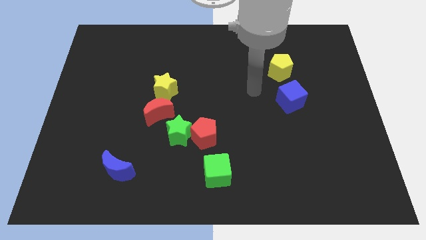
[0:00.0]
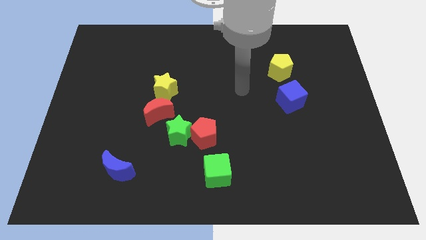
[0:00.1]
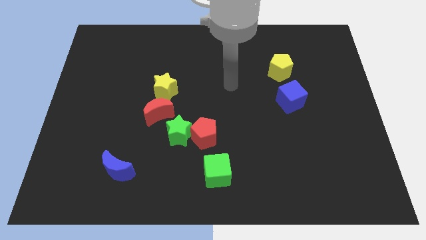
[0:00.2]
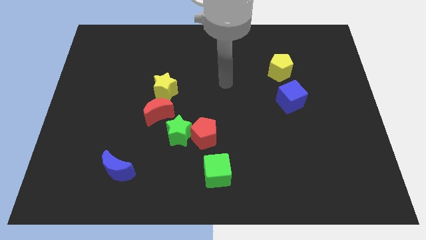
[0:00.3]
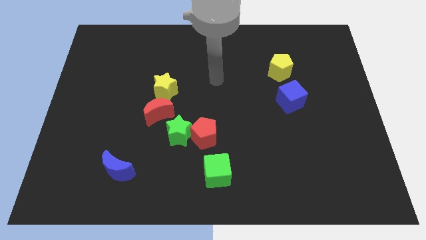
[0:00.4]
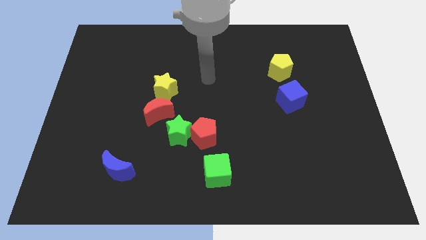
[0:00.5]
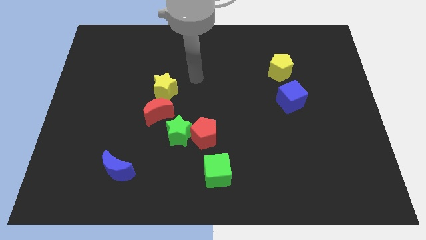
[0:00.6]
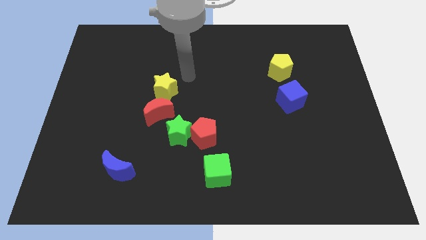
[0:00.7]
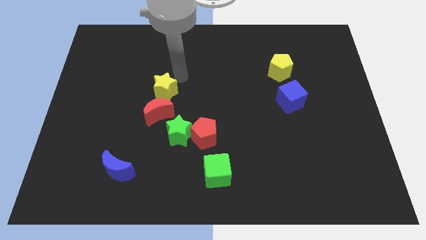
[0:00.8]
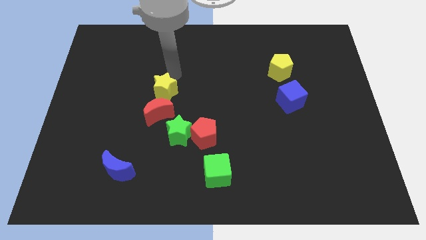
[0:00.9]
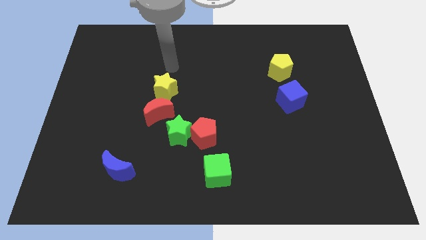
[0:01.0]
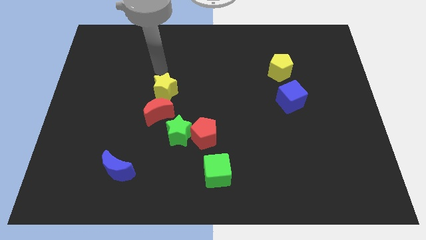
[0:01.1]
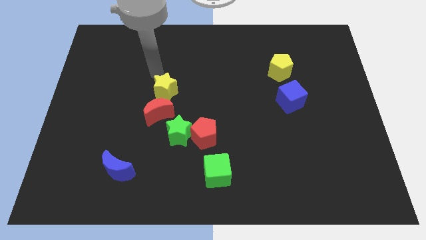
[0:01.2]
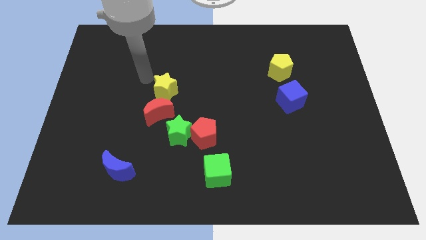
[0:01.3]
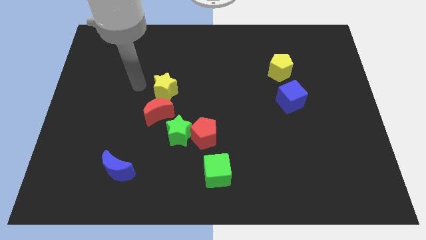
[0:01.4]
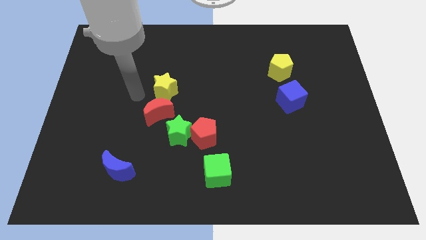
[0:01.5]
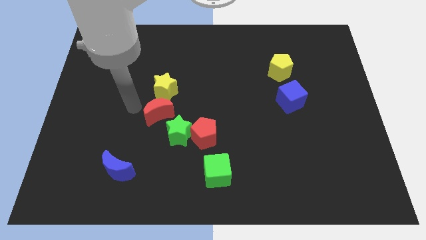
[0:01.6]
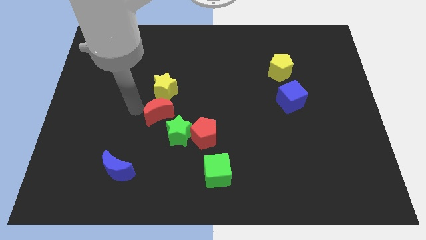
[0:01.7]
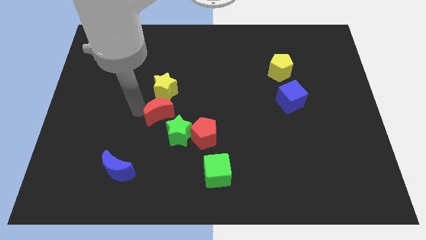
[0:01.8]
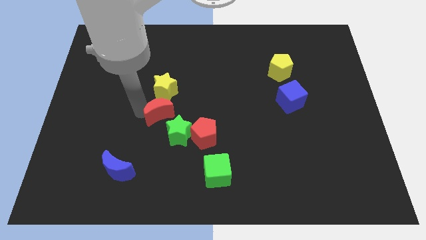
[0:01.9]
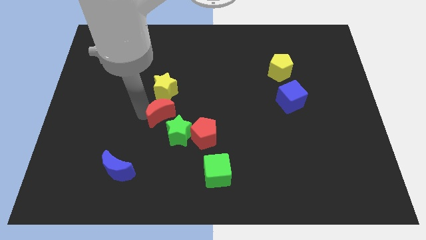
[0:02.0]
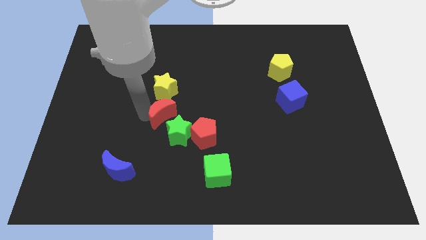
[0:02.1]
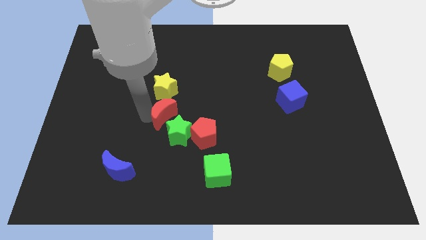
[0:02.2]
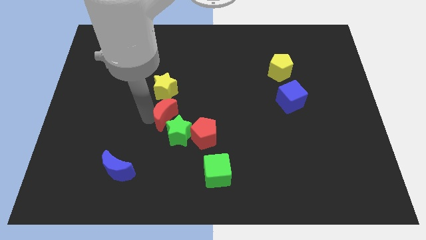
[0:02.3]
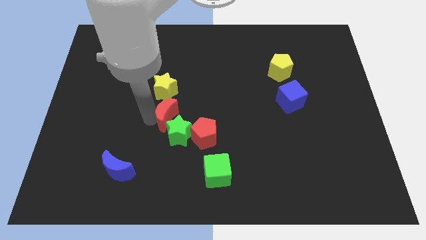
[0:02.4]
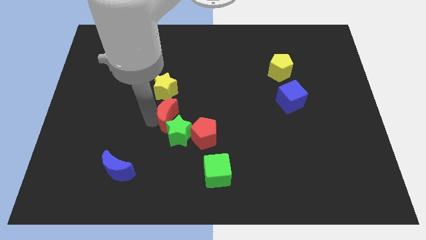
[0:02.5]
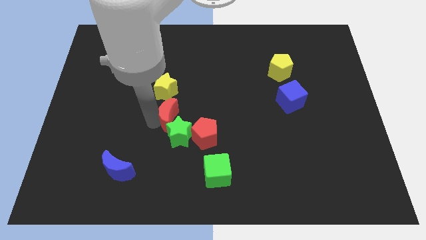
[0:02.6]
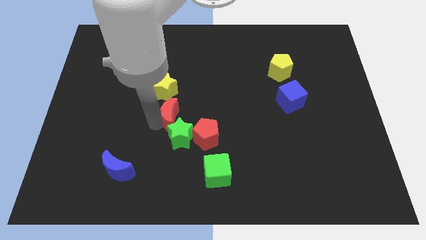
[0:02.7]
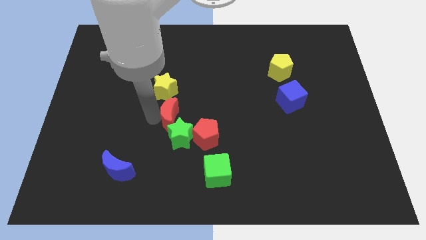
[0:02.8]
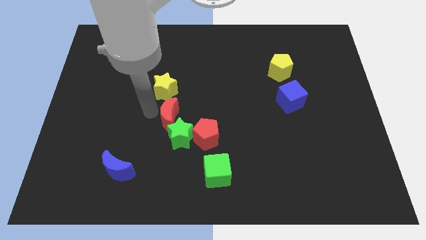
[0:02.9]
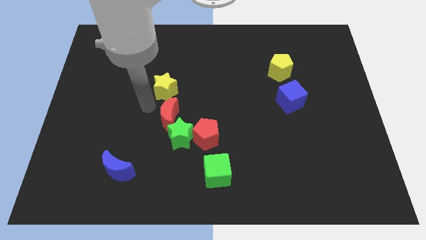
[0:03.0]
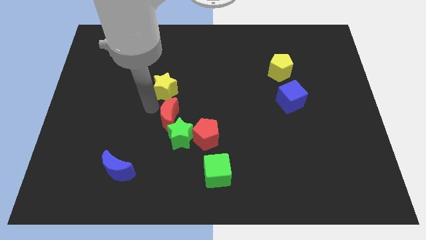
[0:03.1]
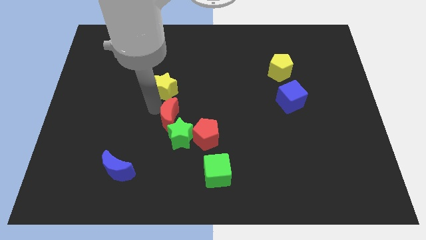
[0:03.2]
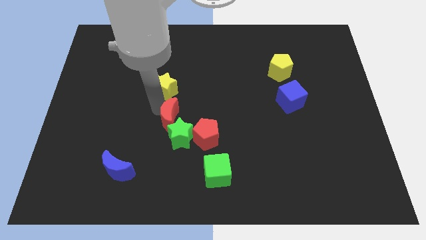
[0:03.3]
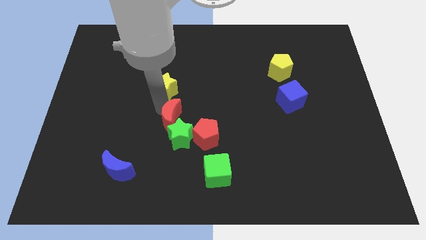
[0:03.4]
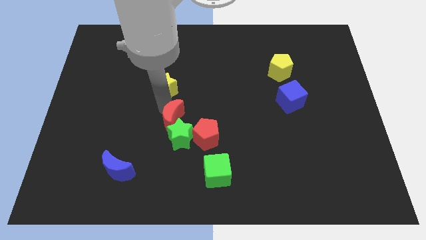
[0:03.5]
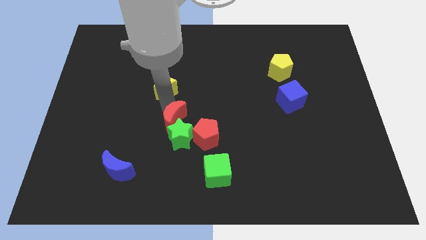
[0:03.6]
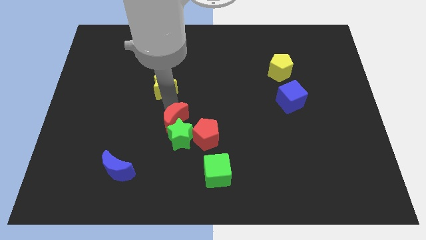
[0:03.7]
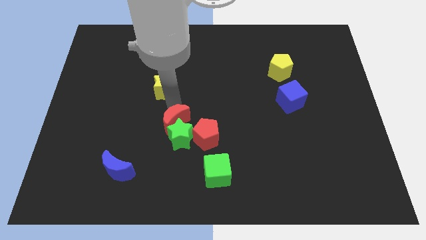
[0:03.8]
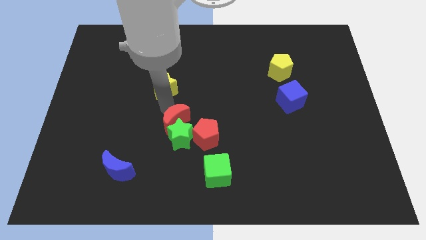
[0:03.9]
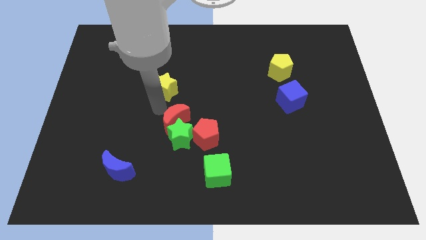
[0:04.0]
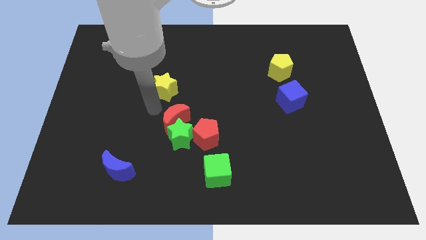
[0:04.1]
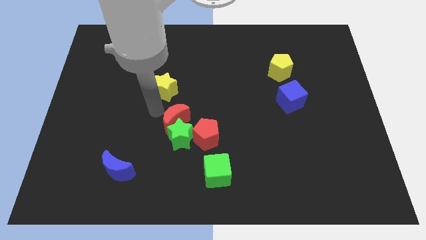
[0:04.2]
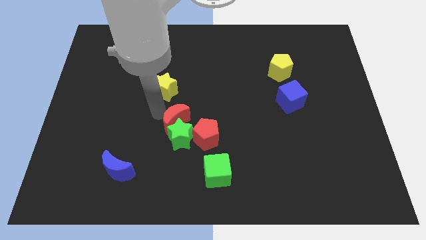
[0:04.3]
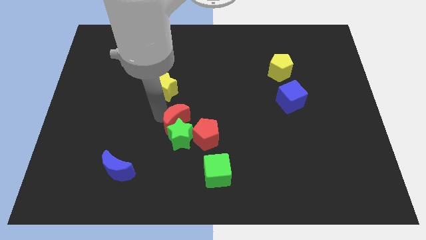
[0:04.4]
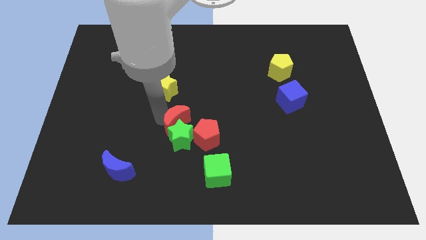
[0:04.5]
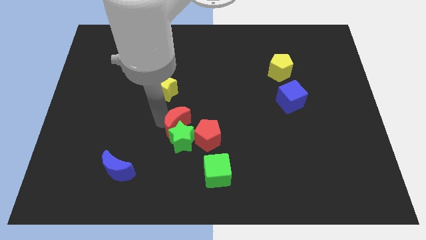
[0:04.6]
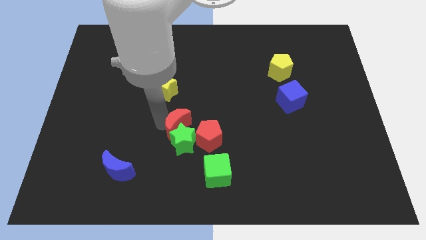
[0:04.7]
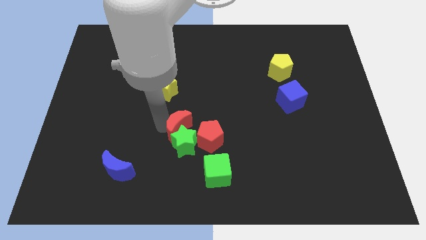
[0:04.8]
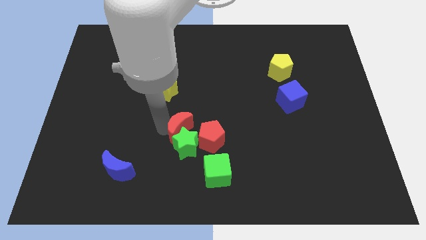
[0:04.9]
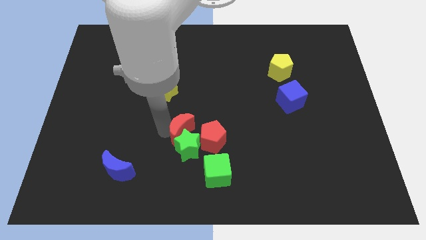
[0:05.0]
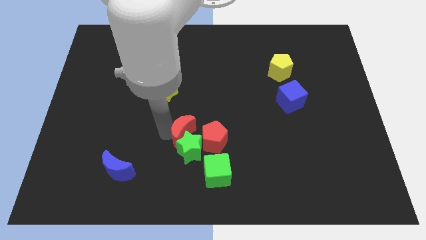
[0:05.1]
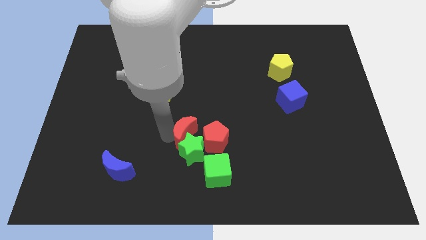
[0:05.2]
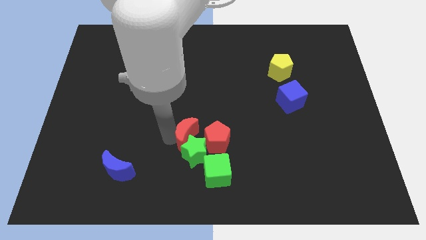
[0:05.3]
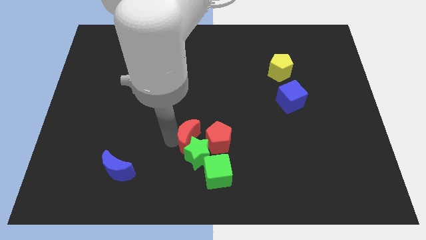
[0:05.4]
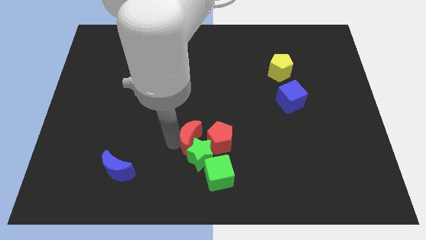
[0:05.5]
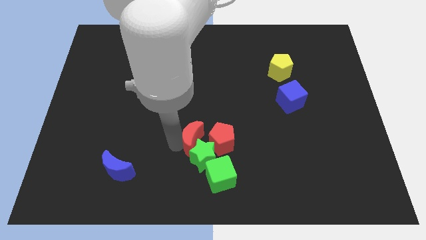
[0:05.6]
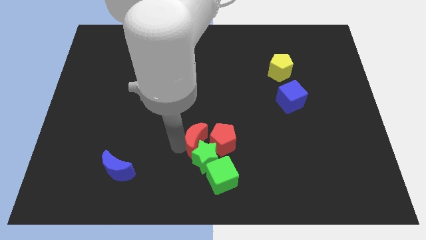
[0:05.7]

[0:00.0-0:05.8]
put the red moon close to the red pentagon

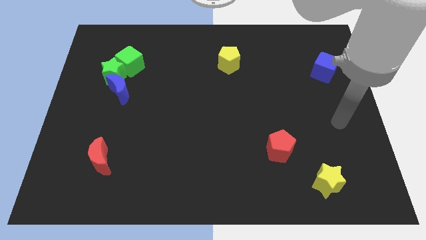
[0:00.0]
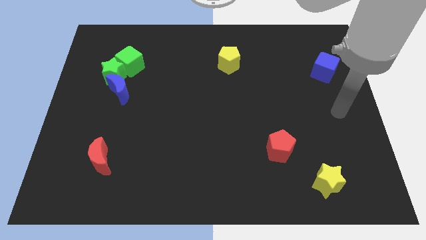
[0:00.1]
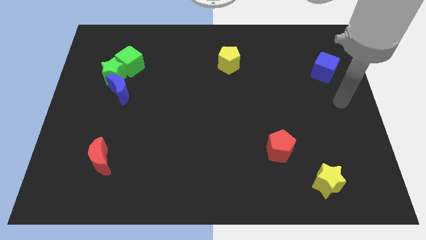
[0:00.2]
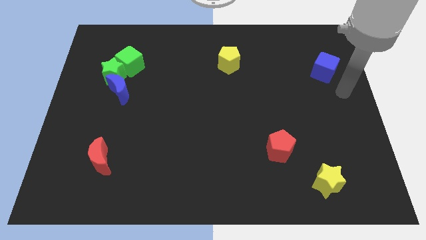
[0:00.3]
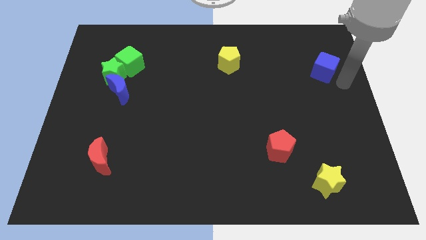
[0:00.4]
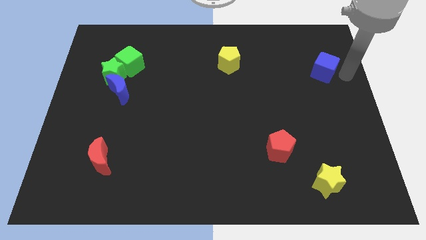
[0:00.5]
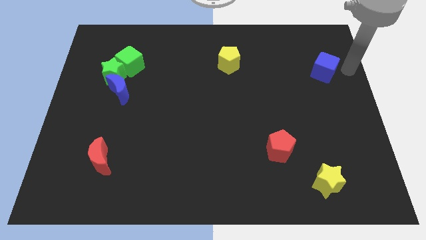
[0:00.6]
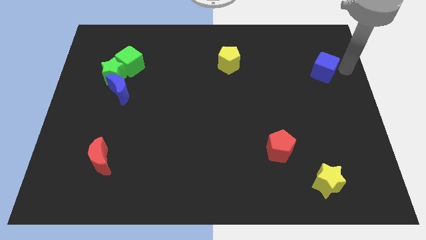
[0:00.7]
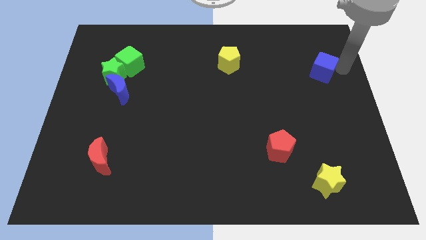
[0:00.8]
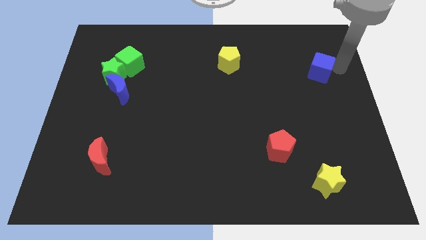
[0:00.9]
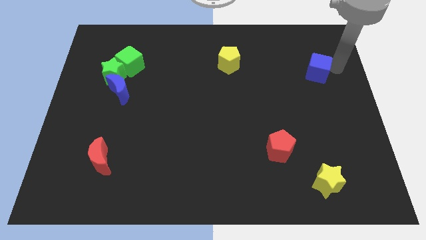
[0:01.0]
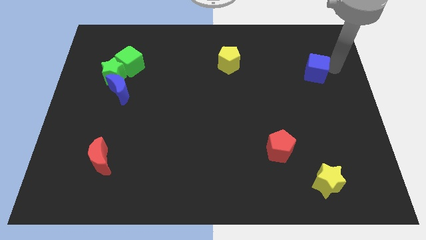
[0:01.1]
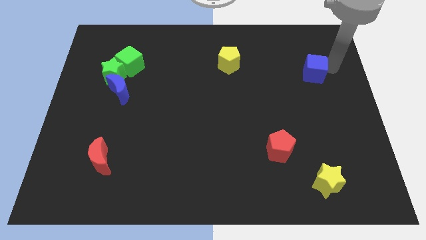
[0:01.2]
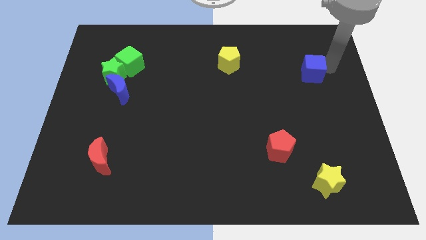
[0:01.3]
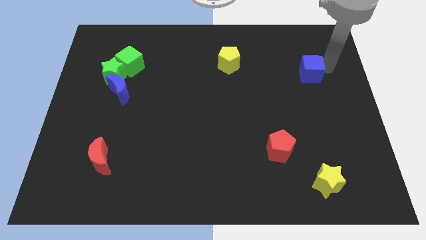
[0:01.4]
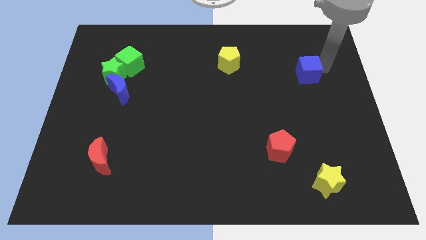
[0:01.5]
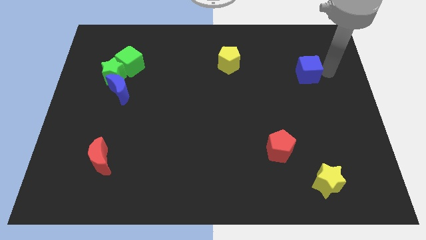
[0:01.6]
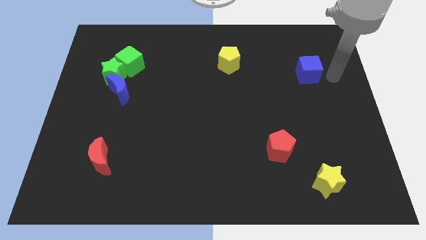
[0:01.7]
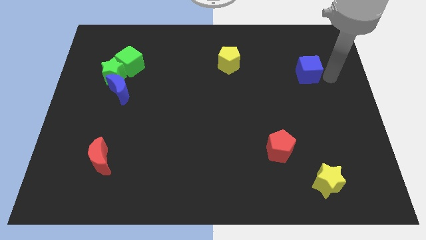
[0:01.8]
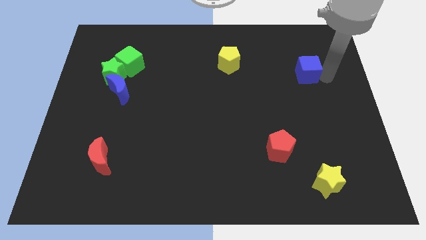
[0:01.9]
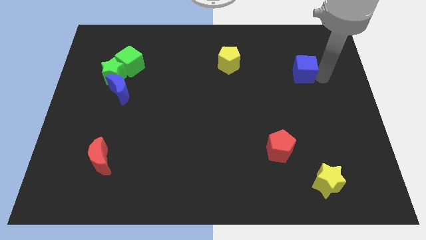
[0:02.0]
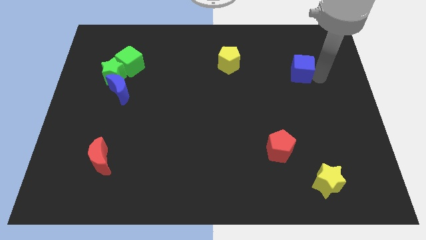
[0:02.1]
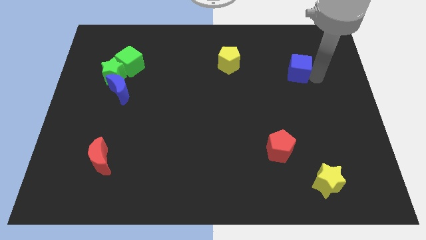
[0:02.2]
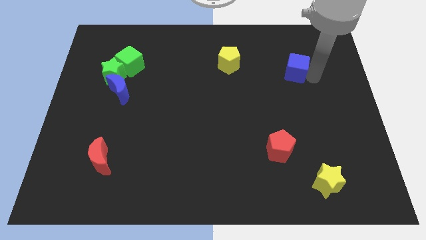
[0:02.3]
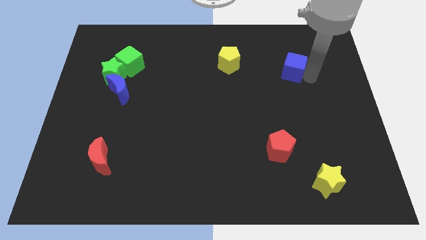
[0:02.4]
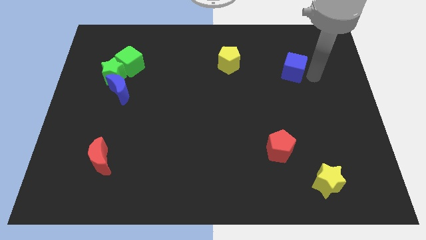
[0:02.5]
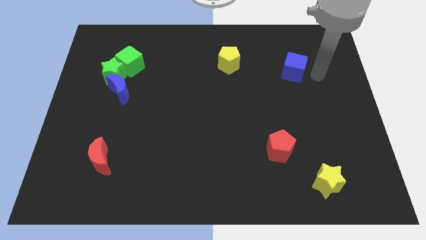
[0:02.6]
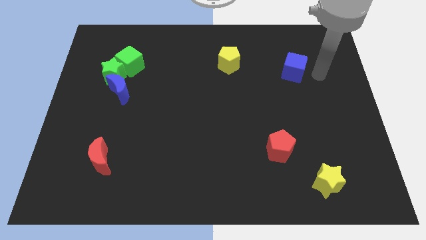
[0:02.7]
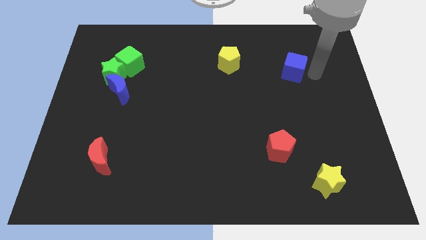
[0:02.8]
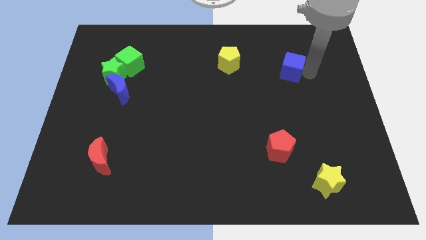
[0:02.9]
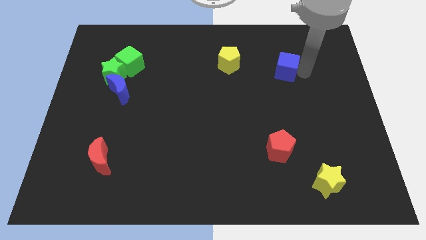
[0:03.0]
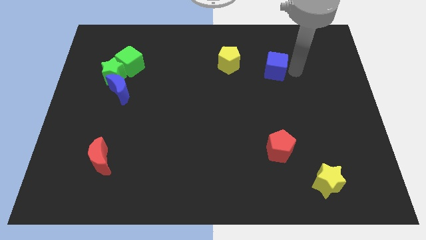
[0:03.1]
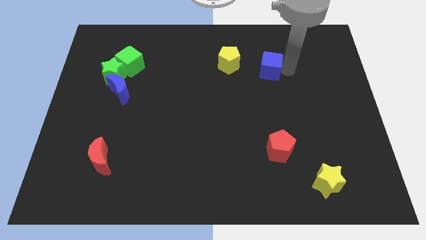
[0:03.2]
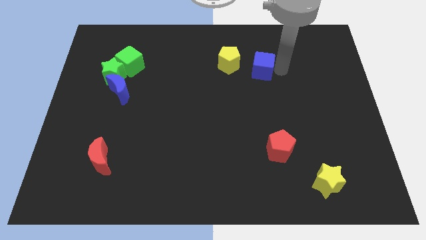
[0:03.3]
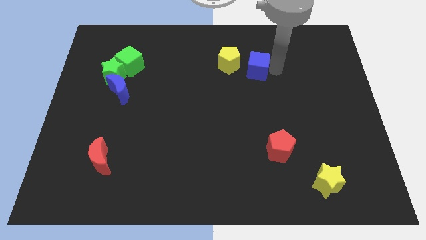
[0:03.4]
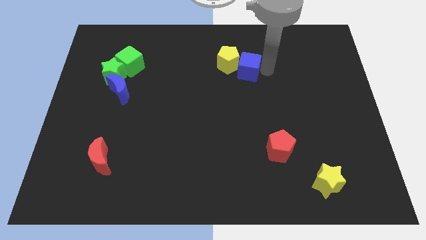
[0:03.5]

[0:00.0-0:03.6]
slide the blue cube close to the yellow pentagon
